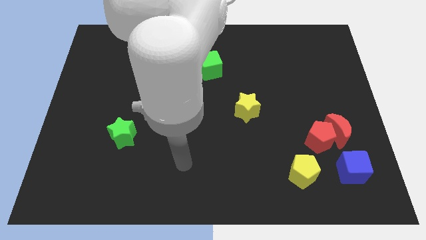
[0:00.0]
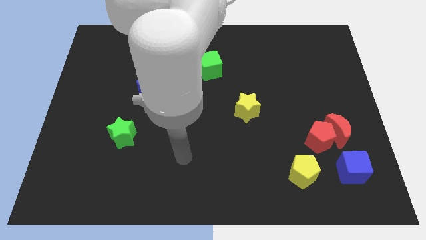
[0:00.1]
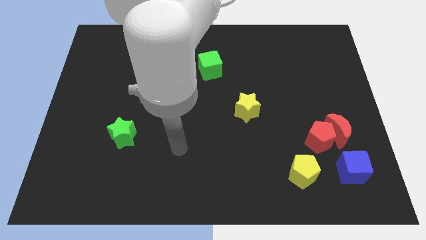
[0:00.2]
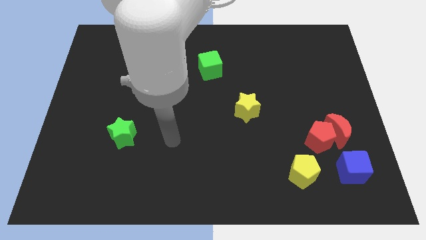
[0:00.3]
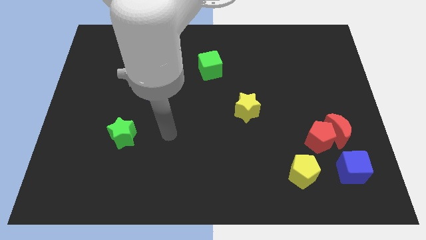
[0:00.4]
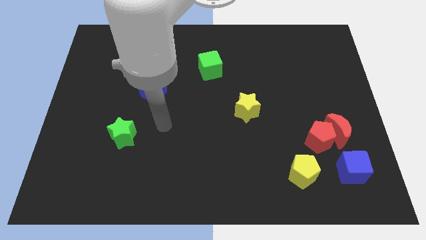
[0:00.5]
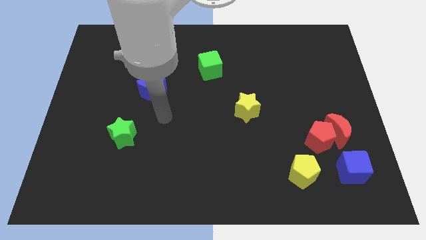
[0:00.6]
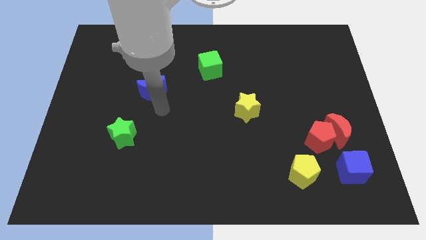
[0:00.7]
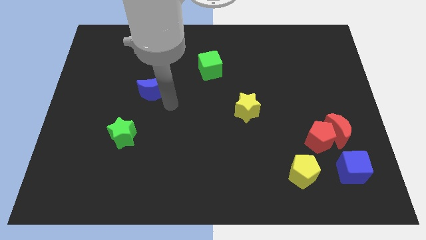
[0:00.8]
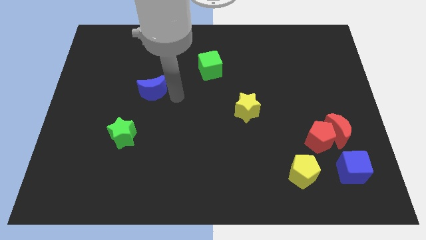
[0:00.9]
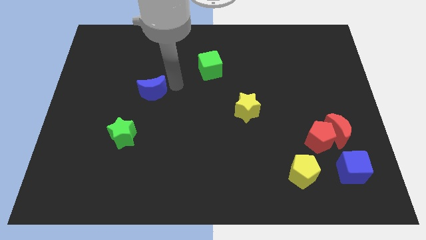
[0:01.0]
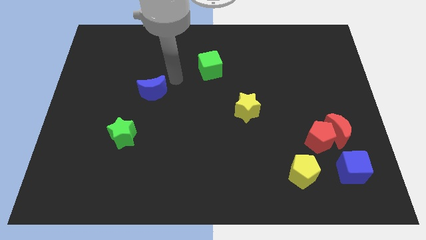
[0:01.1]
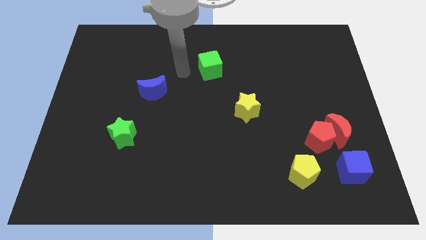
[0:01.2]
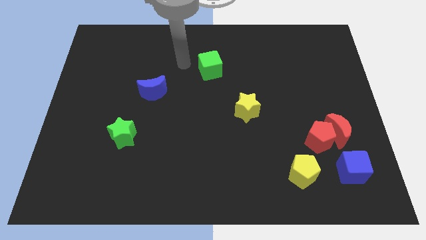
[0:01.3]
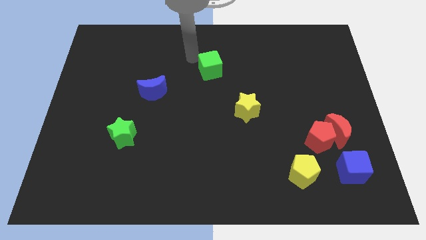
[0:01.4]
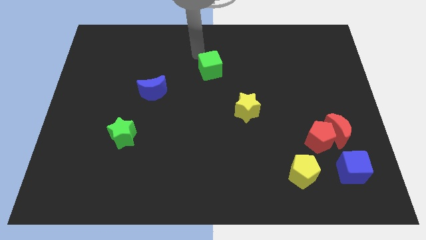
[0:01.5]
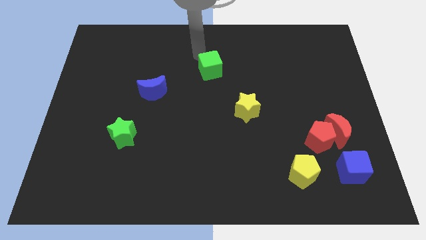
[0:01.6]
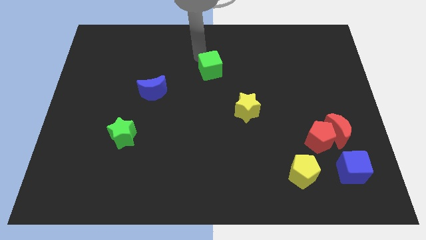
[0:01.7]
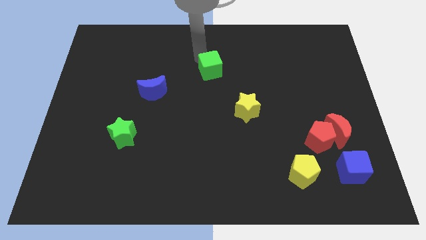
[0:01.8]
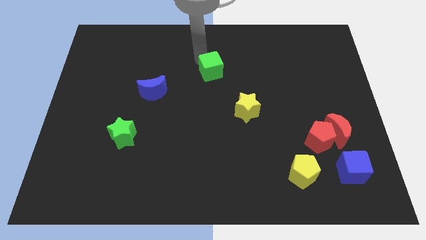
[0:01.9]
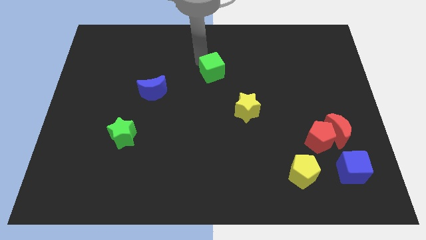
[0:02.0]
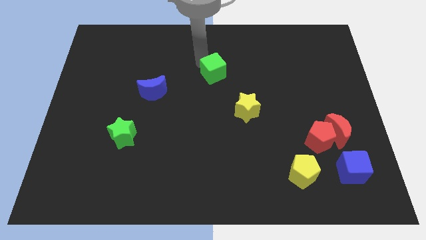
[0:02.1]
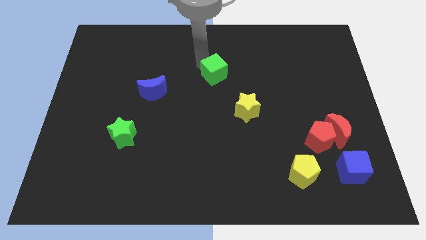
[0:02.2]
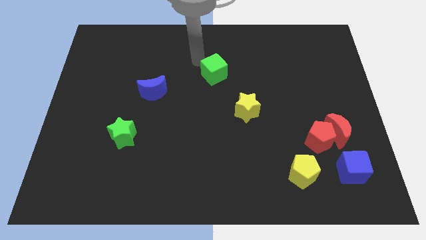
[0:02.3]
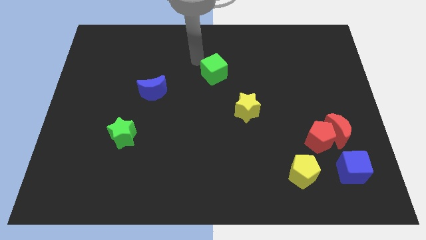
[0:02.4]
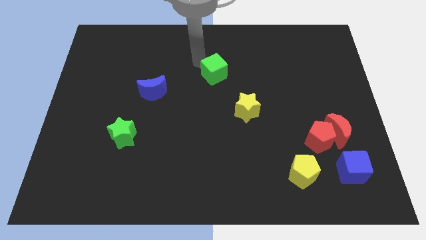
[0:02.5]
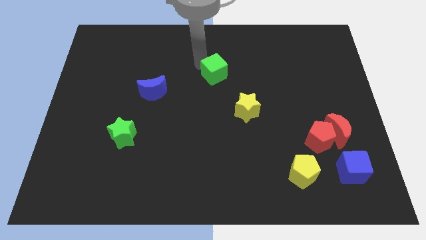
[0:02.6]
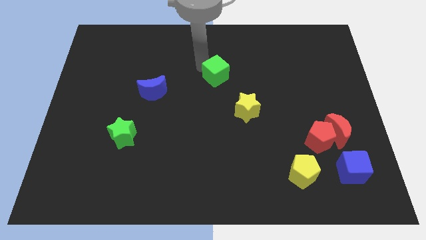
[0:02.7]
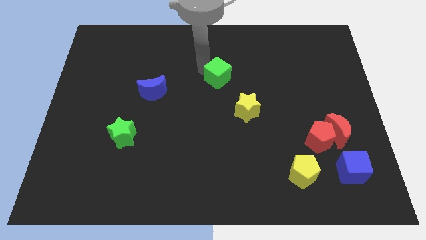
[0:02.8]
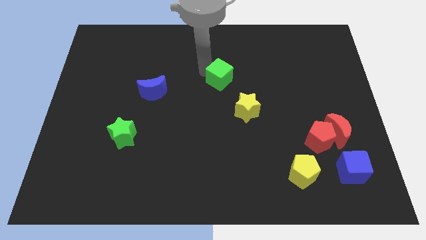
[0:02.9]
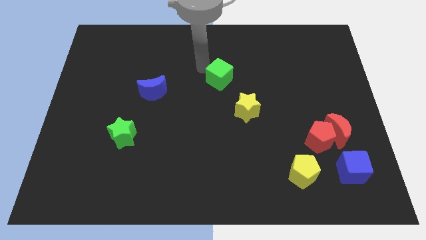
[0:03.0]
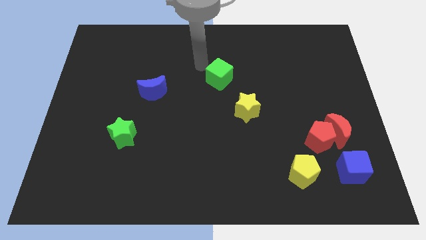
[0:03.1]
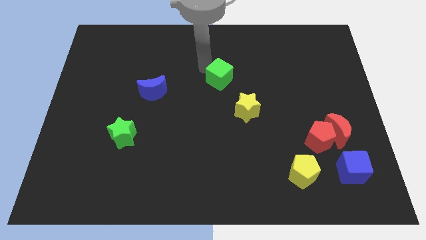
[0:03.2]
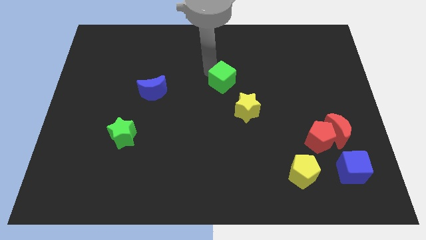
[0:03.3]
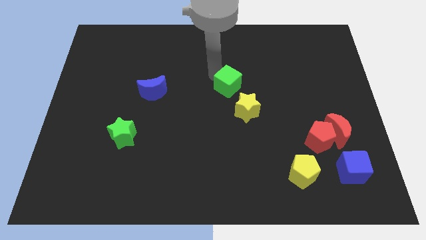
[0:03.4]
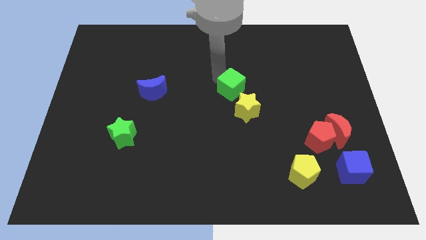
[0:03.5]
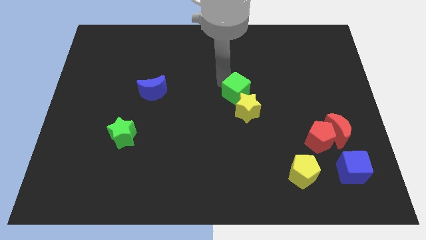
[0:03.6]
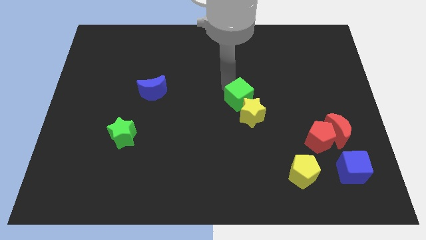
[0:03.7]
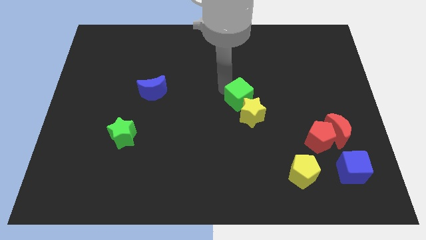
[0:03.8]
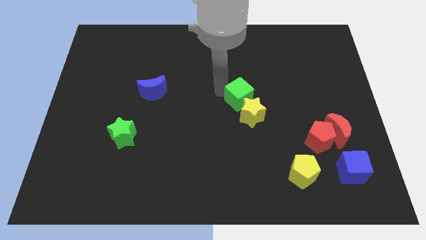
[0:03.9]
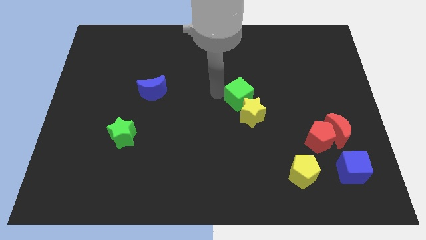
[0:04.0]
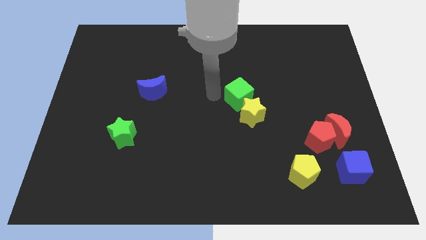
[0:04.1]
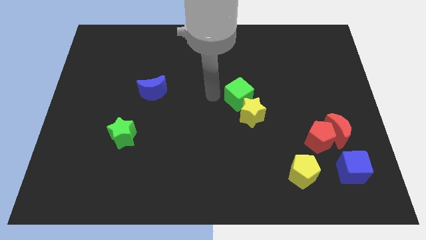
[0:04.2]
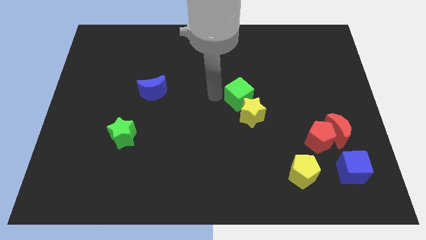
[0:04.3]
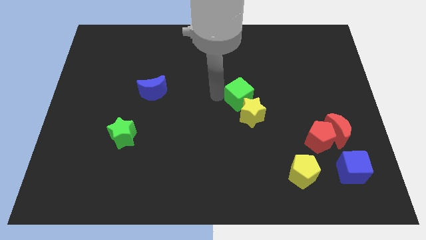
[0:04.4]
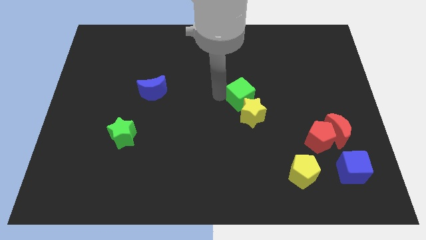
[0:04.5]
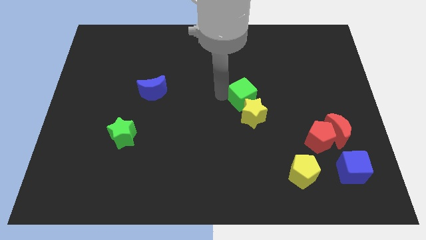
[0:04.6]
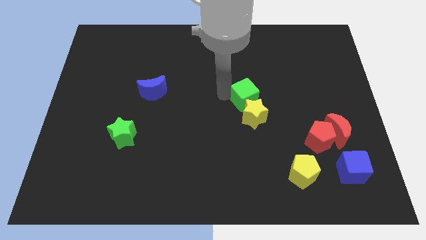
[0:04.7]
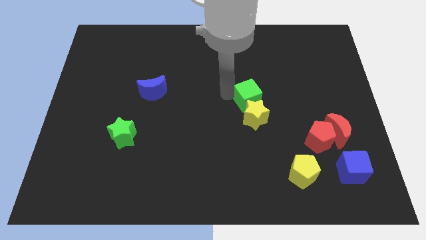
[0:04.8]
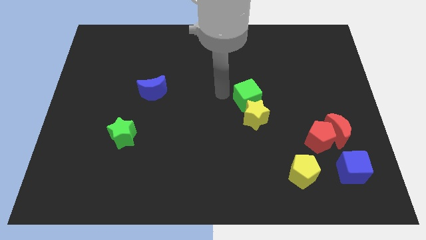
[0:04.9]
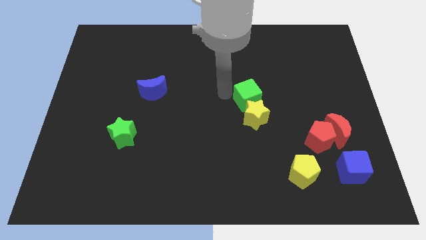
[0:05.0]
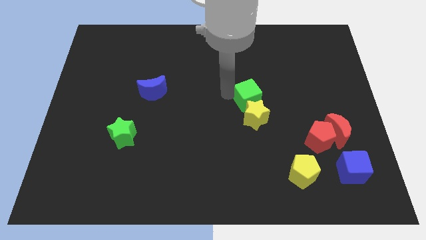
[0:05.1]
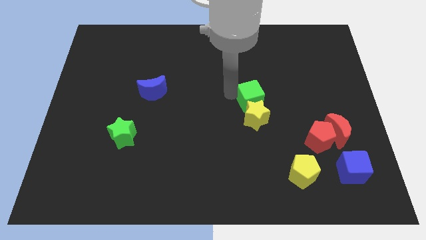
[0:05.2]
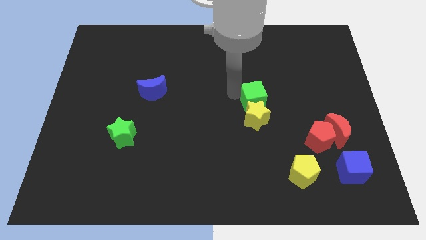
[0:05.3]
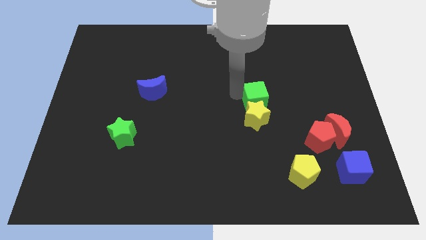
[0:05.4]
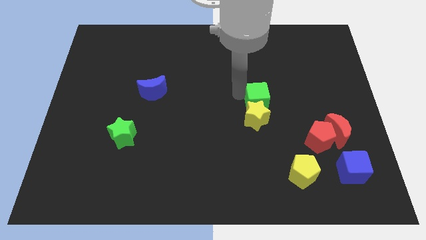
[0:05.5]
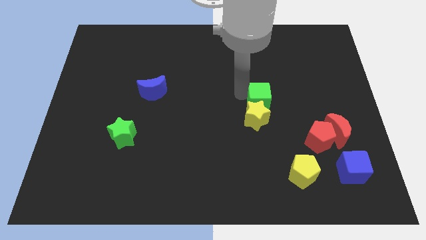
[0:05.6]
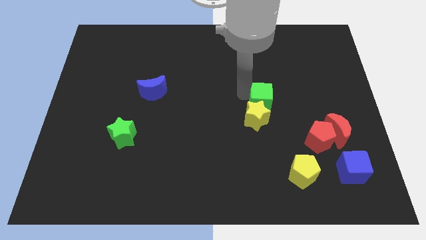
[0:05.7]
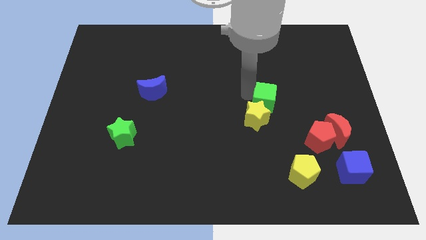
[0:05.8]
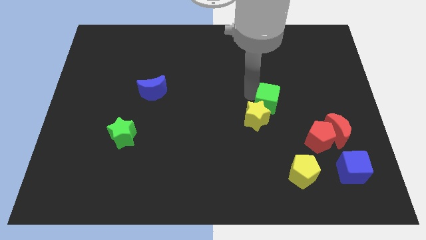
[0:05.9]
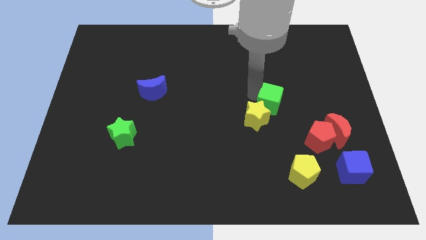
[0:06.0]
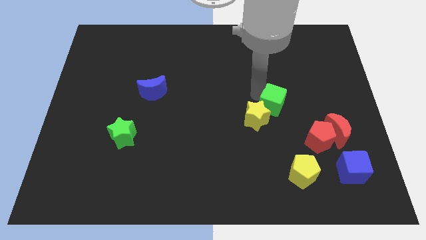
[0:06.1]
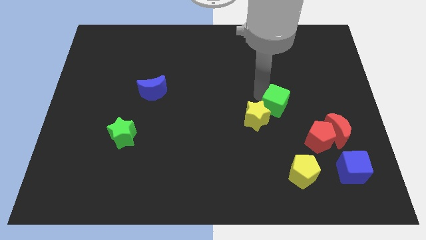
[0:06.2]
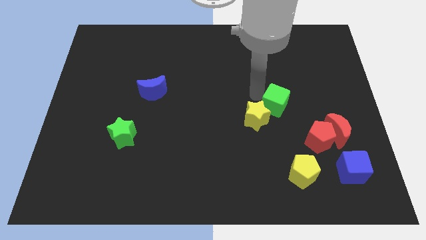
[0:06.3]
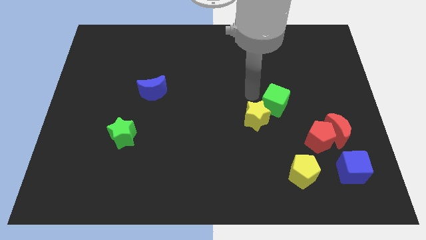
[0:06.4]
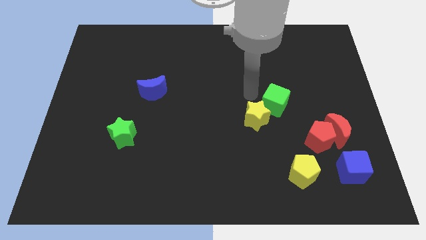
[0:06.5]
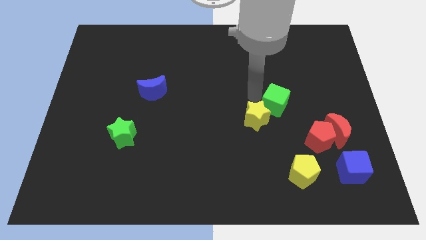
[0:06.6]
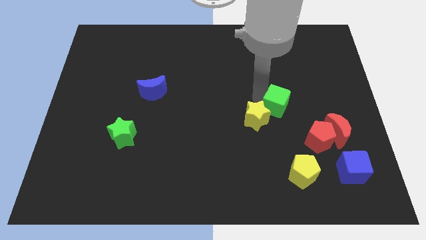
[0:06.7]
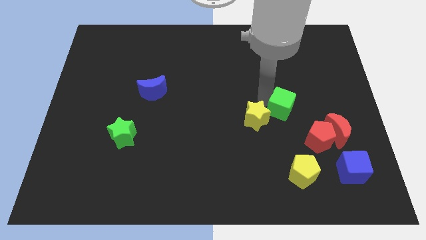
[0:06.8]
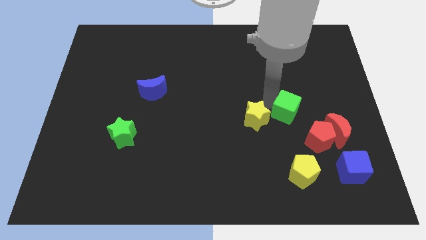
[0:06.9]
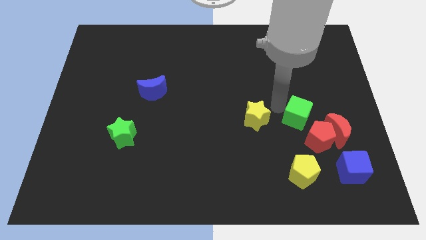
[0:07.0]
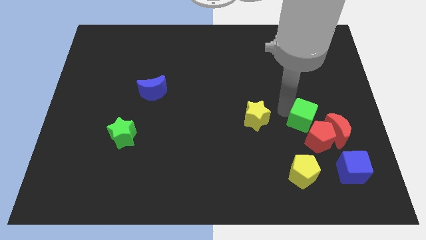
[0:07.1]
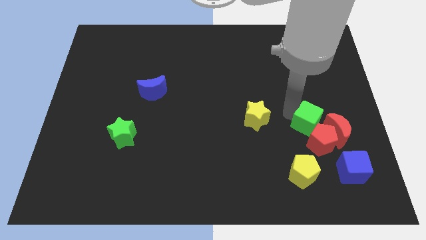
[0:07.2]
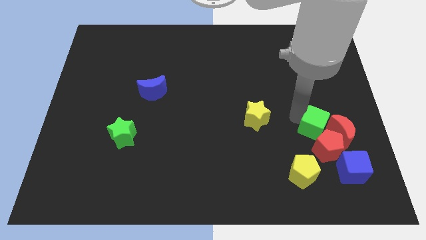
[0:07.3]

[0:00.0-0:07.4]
slide the green cube to the red moon

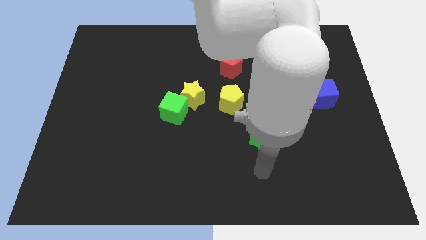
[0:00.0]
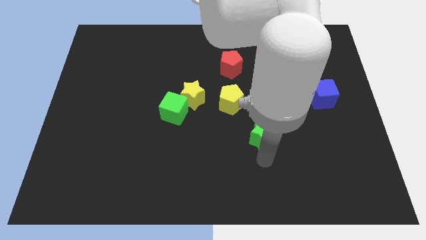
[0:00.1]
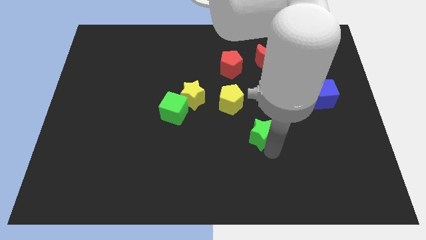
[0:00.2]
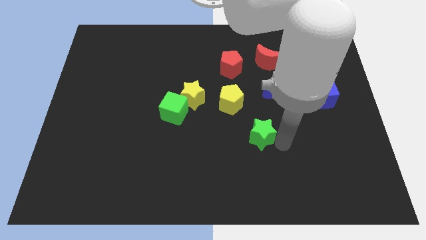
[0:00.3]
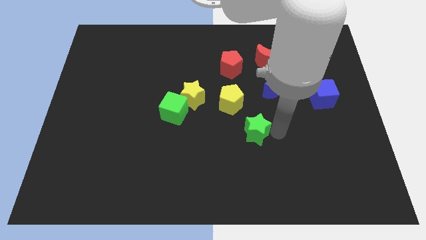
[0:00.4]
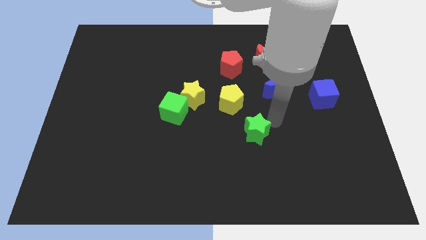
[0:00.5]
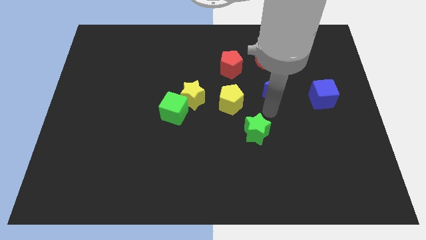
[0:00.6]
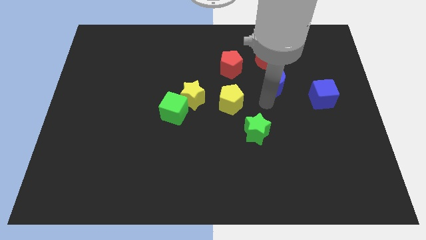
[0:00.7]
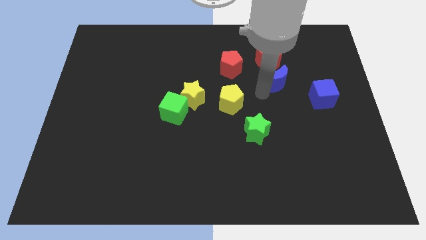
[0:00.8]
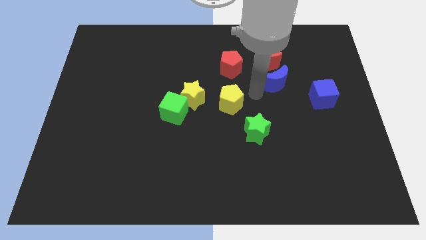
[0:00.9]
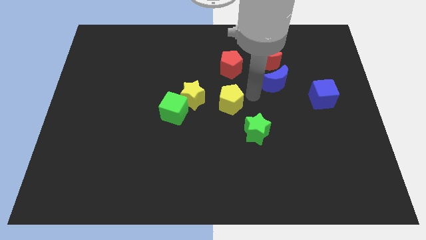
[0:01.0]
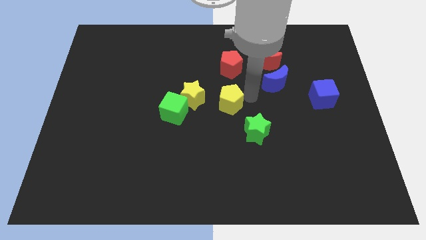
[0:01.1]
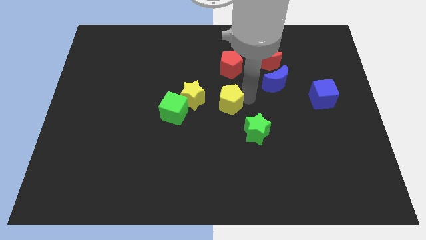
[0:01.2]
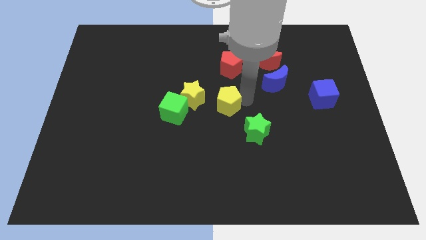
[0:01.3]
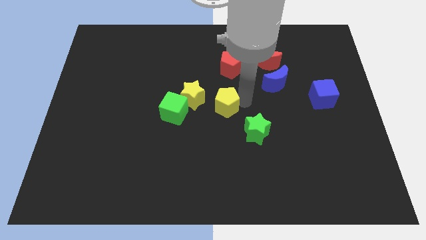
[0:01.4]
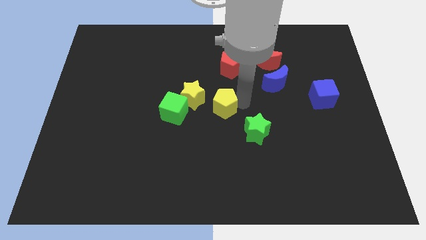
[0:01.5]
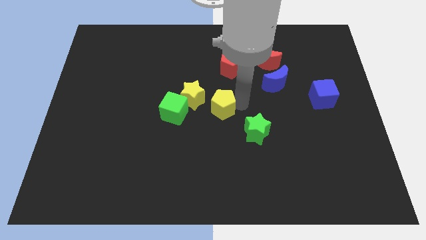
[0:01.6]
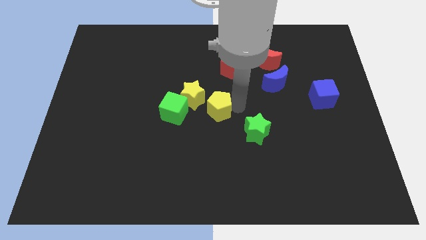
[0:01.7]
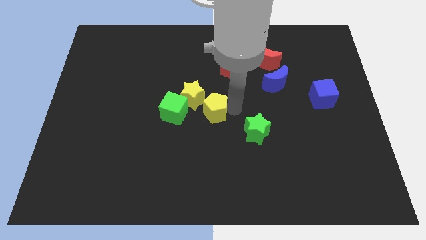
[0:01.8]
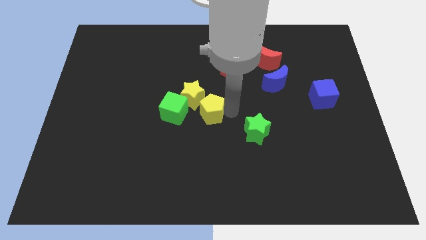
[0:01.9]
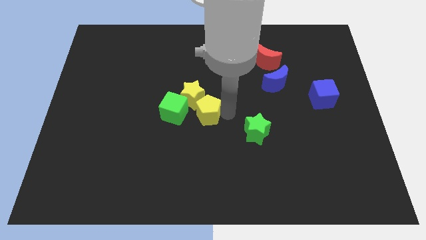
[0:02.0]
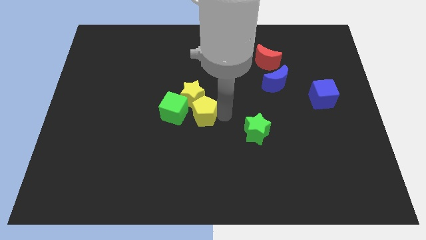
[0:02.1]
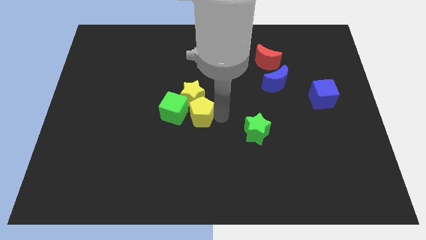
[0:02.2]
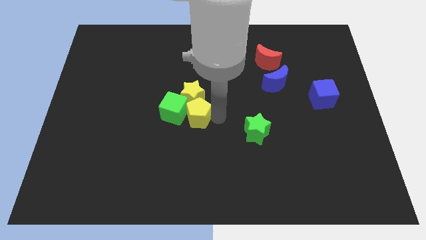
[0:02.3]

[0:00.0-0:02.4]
put the yellow pentagon next to the green cube
